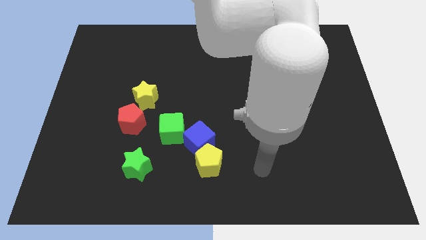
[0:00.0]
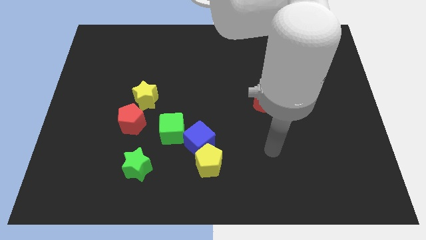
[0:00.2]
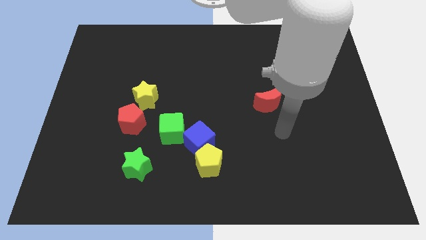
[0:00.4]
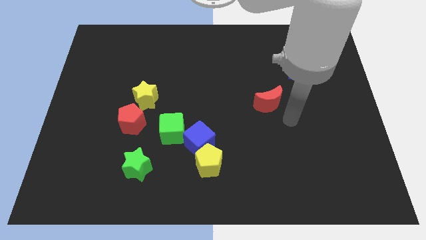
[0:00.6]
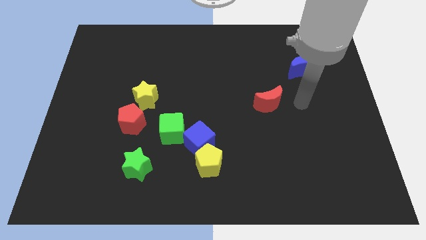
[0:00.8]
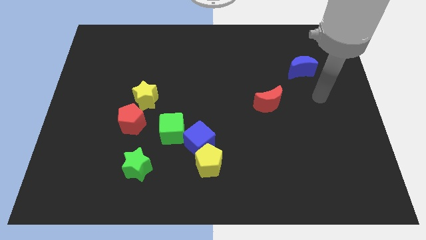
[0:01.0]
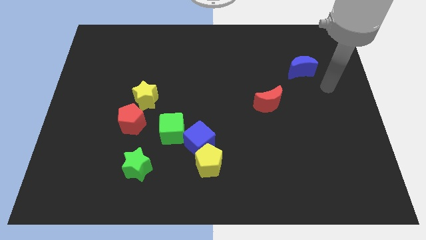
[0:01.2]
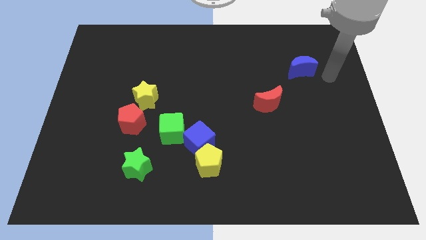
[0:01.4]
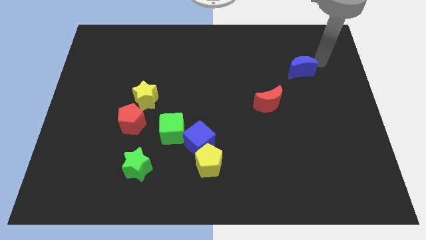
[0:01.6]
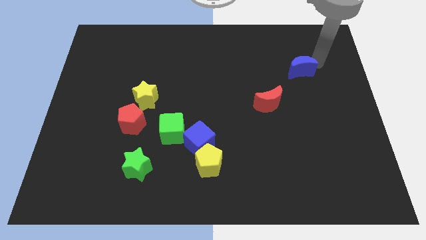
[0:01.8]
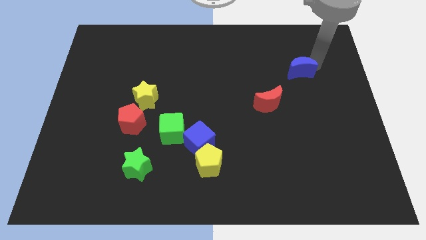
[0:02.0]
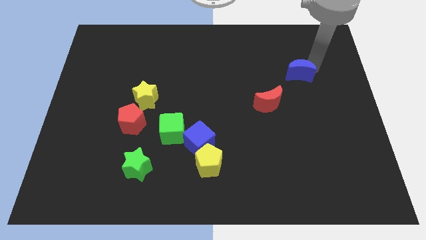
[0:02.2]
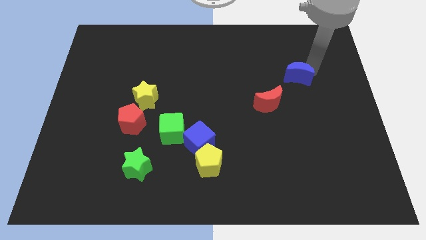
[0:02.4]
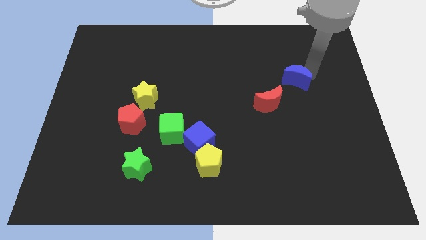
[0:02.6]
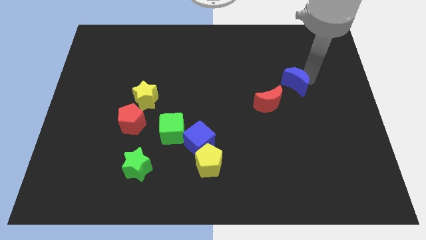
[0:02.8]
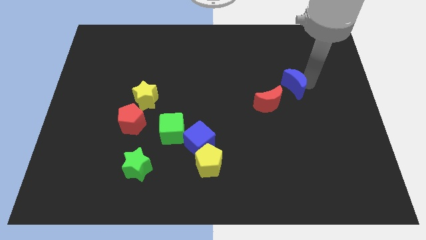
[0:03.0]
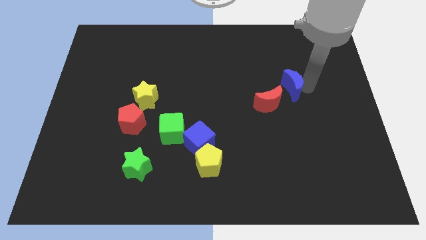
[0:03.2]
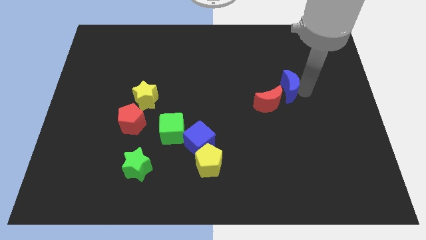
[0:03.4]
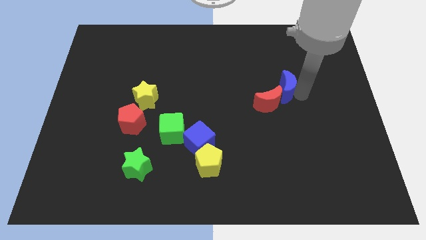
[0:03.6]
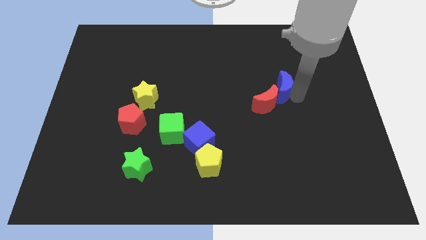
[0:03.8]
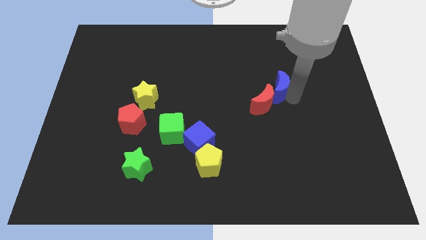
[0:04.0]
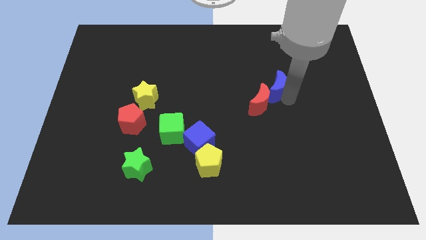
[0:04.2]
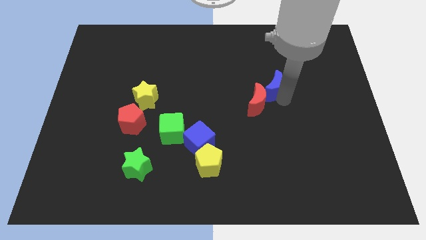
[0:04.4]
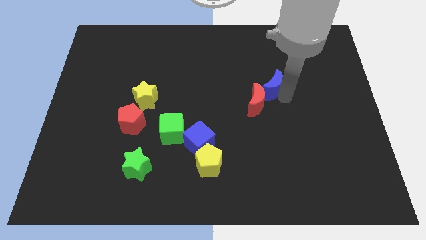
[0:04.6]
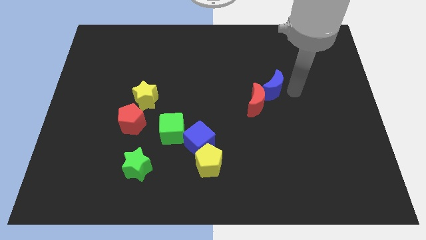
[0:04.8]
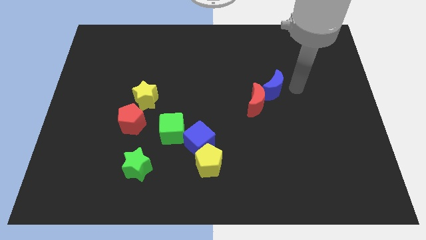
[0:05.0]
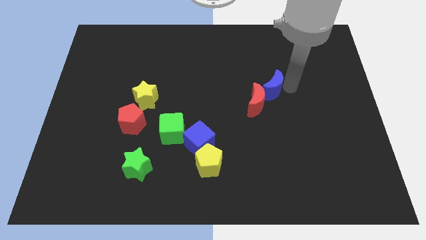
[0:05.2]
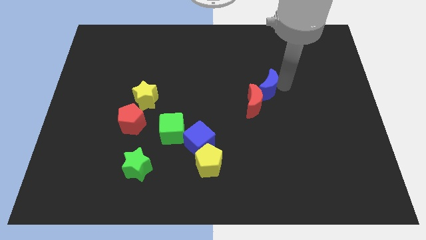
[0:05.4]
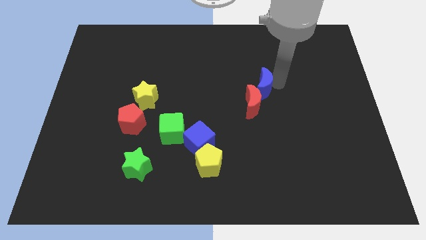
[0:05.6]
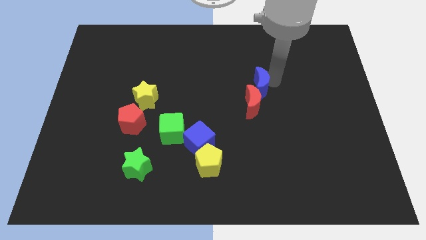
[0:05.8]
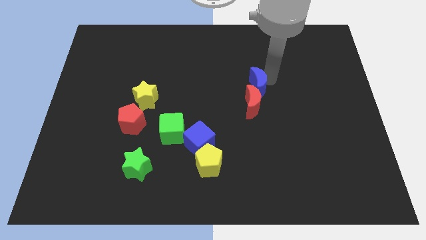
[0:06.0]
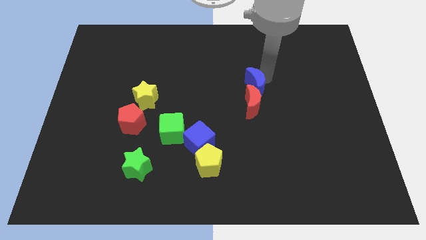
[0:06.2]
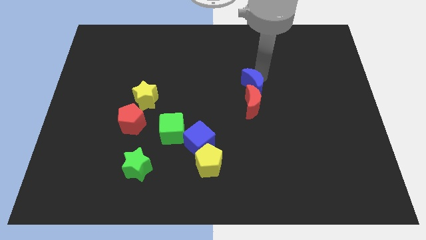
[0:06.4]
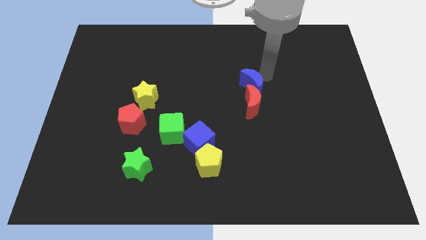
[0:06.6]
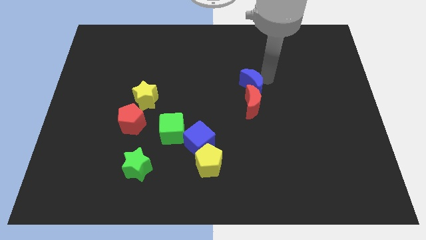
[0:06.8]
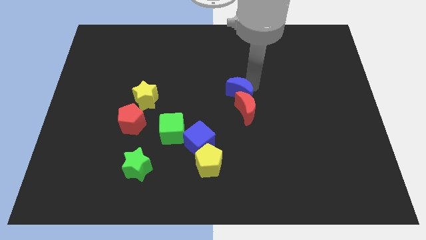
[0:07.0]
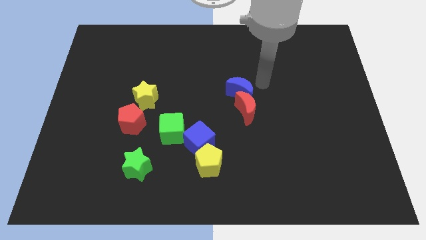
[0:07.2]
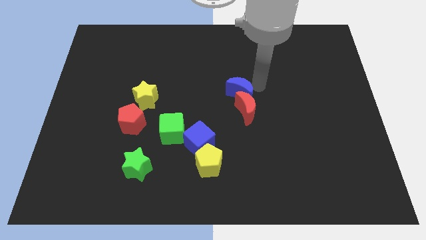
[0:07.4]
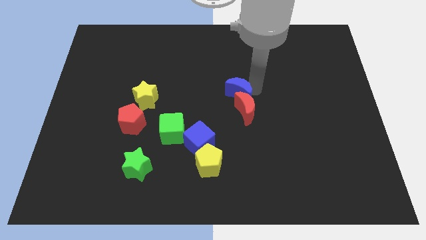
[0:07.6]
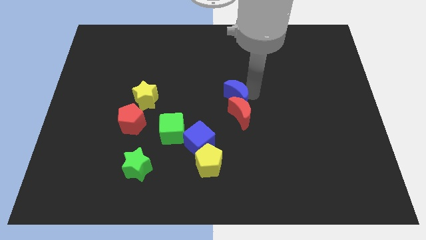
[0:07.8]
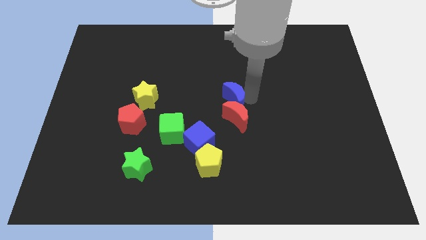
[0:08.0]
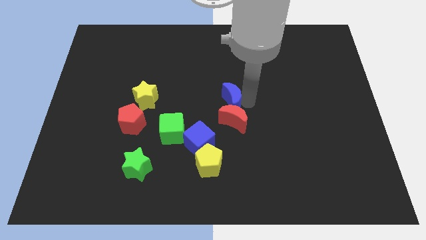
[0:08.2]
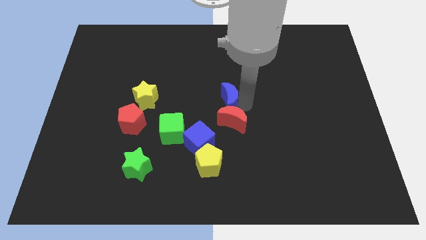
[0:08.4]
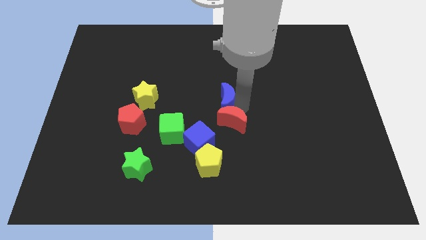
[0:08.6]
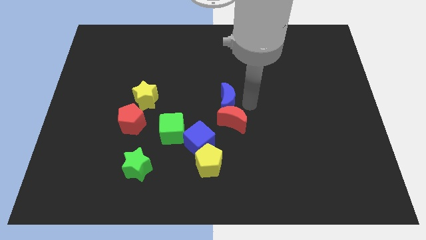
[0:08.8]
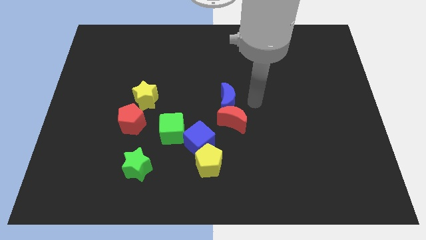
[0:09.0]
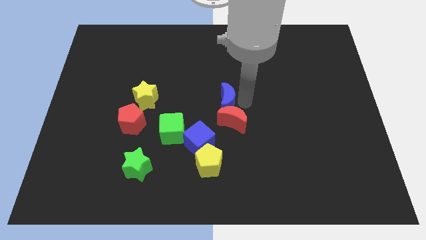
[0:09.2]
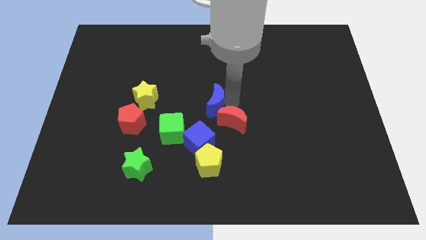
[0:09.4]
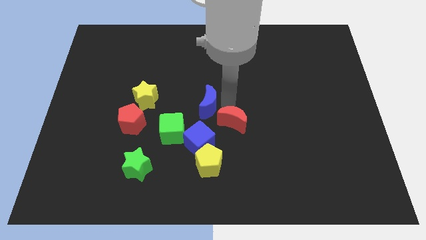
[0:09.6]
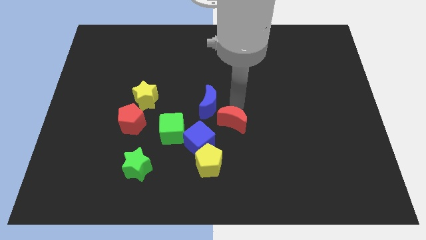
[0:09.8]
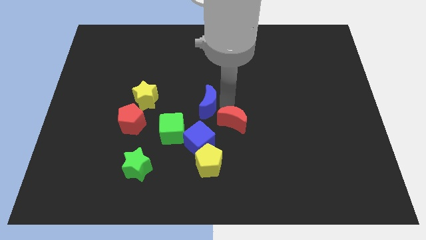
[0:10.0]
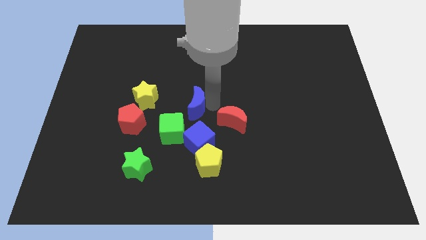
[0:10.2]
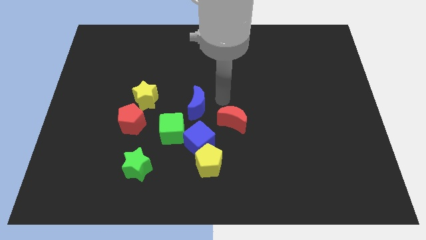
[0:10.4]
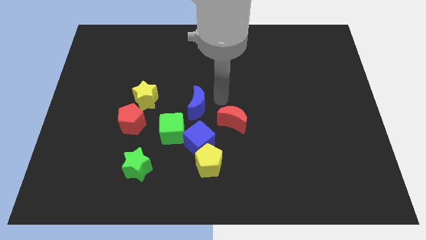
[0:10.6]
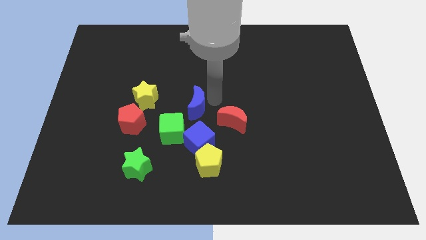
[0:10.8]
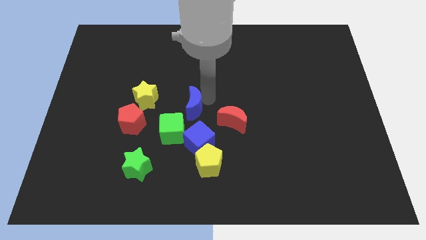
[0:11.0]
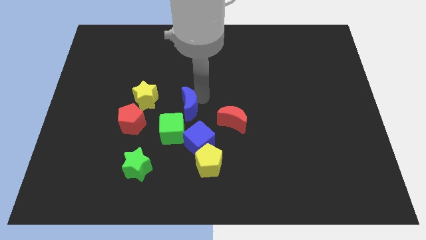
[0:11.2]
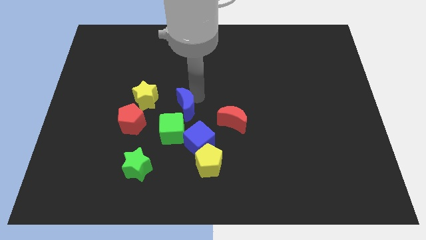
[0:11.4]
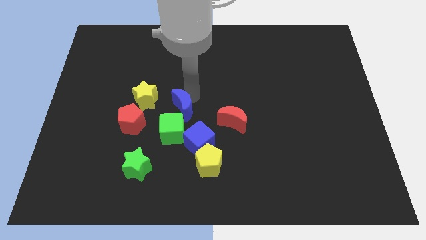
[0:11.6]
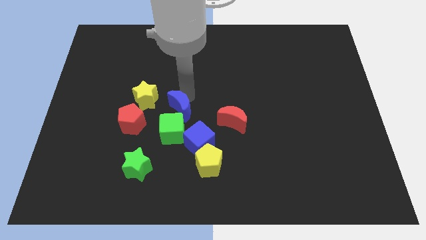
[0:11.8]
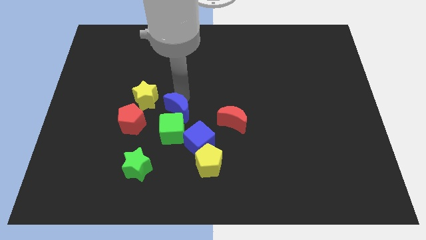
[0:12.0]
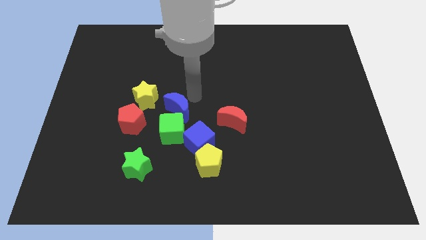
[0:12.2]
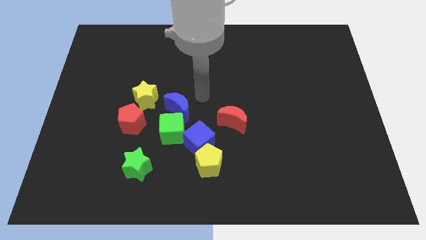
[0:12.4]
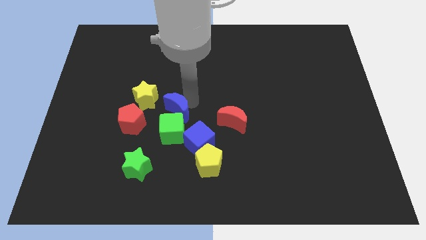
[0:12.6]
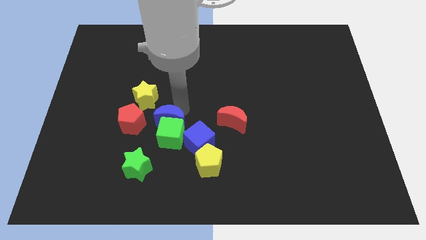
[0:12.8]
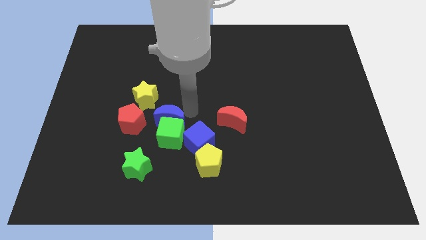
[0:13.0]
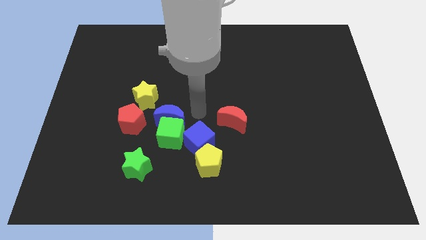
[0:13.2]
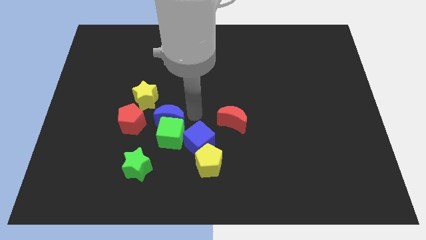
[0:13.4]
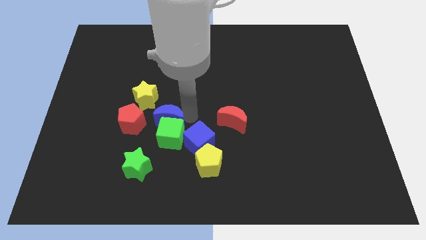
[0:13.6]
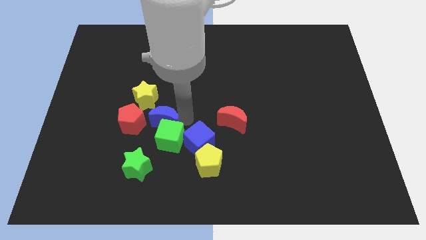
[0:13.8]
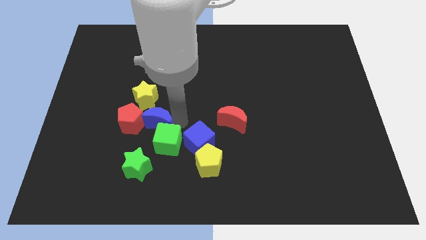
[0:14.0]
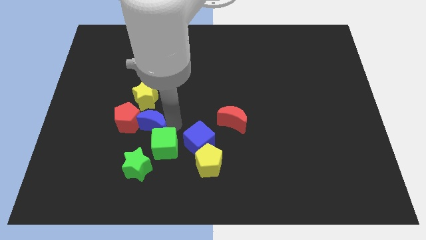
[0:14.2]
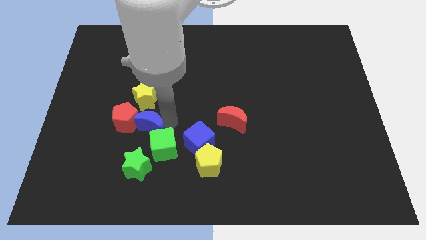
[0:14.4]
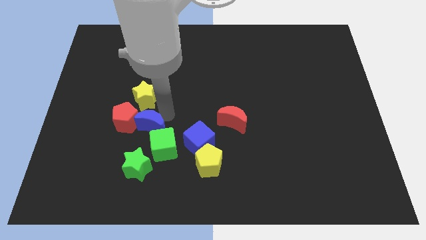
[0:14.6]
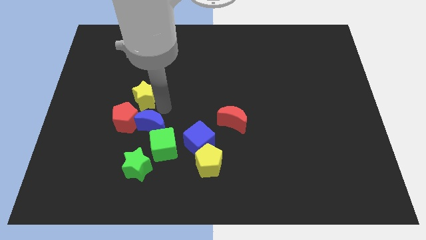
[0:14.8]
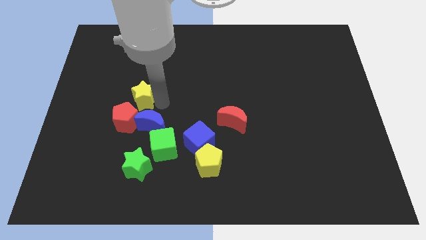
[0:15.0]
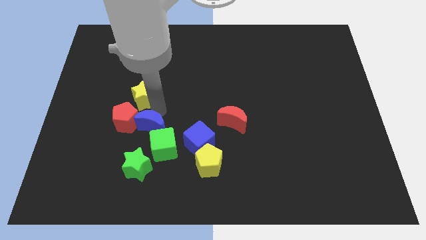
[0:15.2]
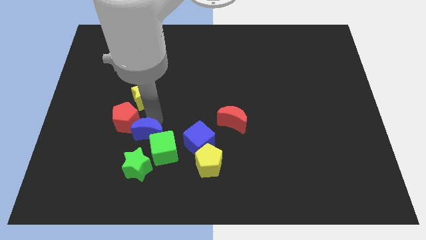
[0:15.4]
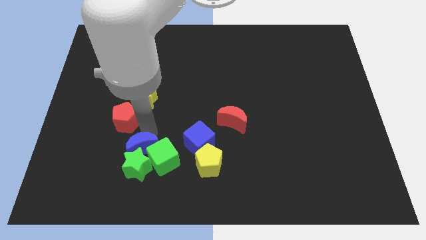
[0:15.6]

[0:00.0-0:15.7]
move the blue moon to the green star
